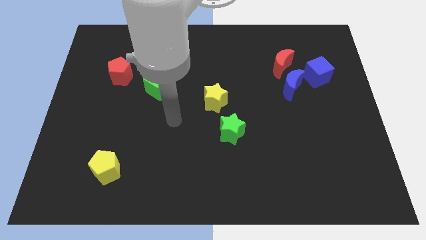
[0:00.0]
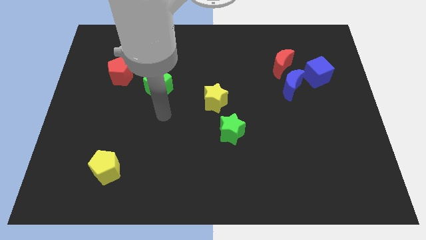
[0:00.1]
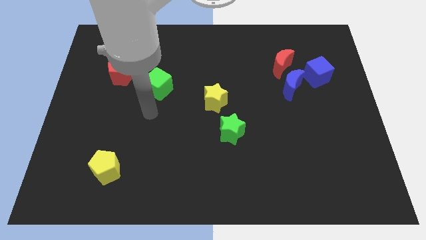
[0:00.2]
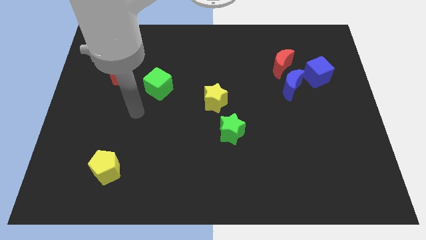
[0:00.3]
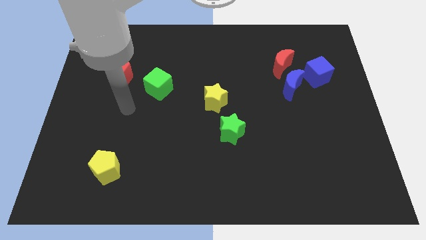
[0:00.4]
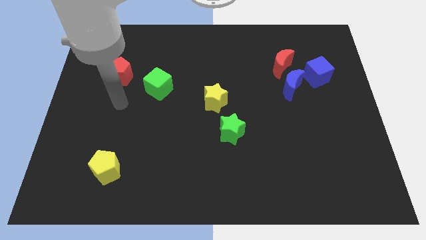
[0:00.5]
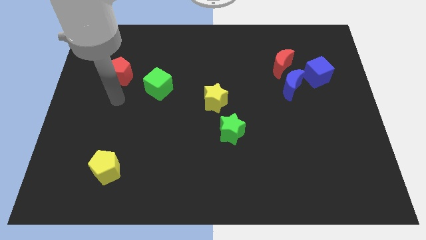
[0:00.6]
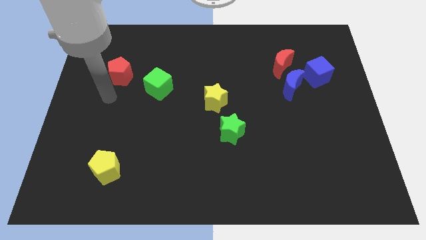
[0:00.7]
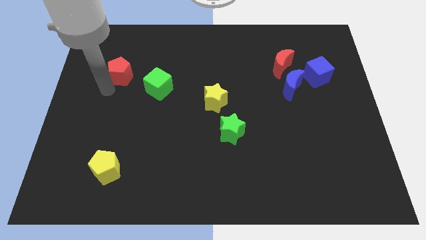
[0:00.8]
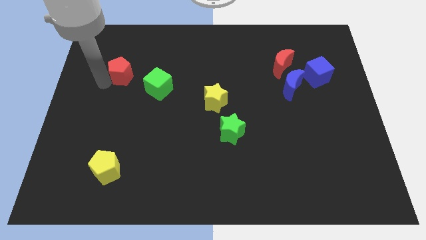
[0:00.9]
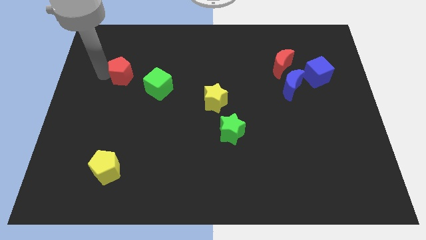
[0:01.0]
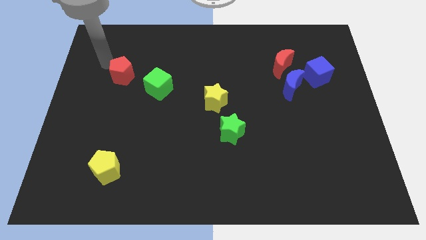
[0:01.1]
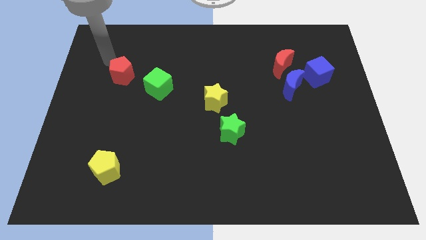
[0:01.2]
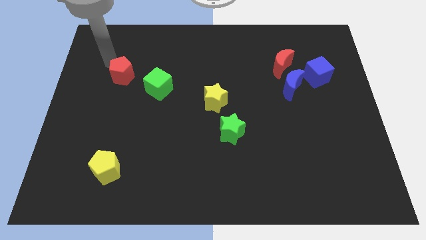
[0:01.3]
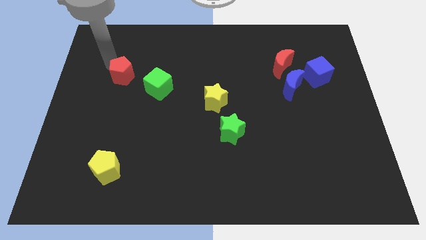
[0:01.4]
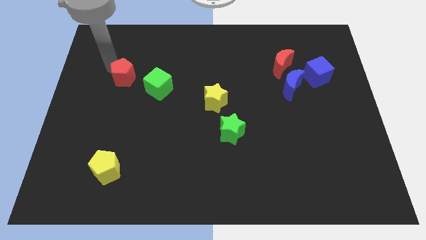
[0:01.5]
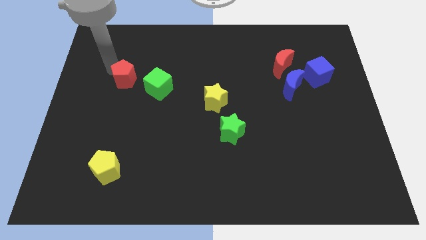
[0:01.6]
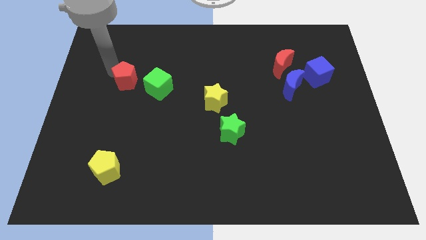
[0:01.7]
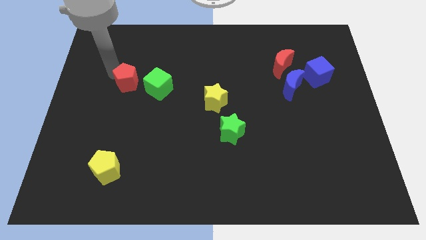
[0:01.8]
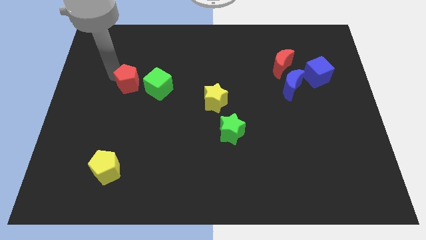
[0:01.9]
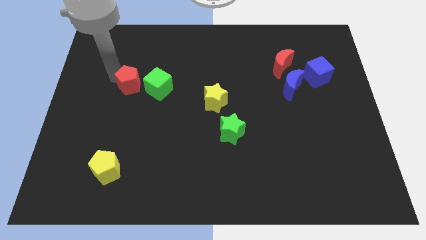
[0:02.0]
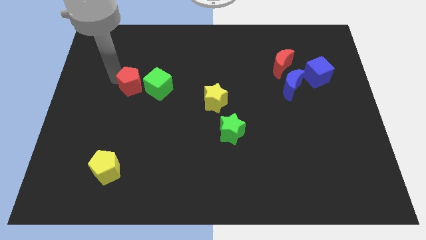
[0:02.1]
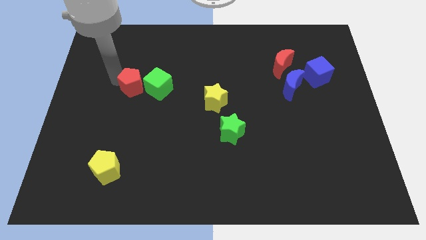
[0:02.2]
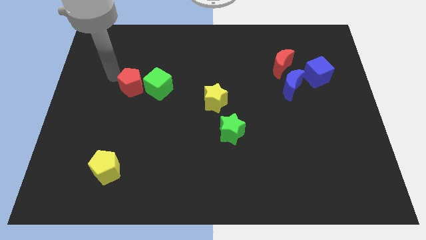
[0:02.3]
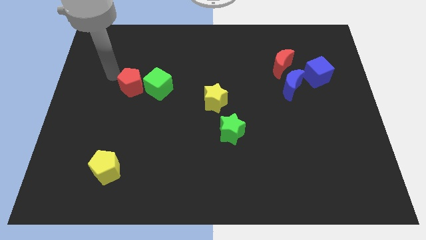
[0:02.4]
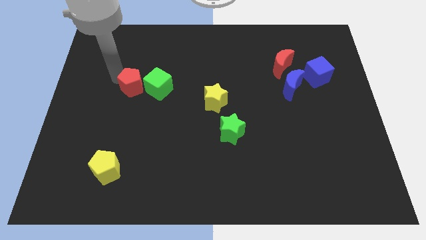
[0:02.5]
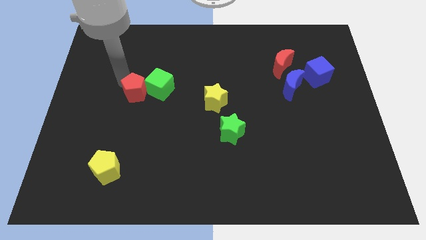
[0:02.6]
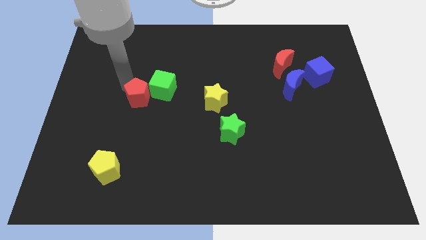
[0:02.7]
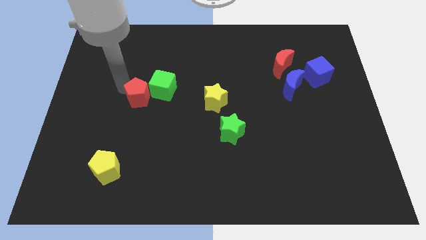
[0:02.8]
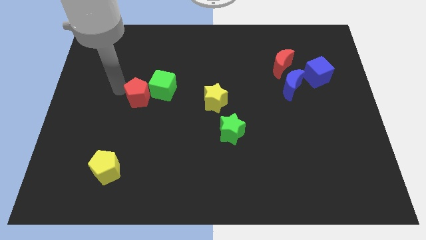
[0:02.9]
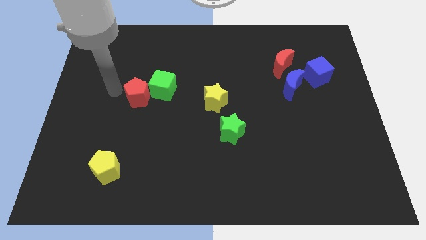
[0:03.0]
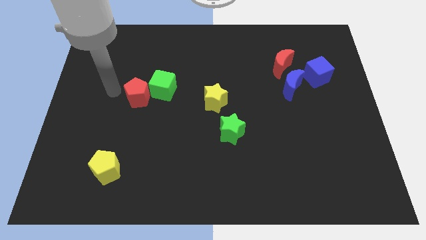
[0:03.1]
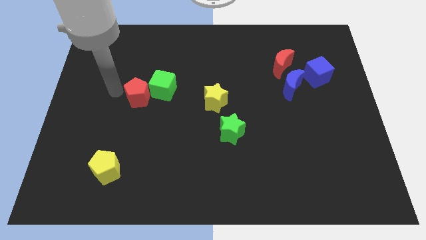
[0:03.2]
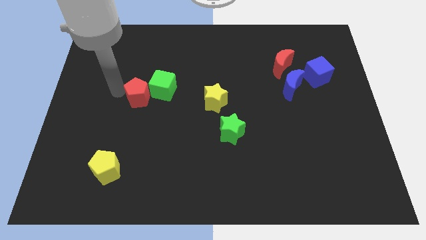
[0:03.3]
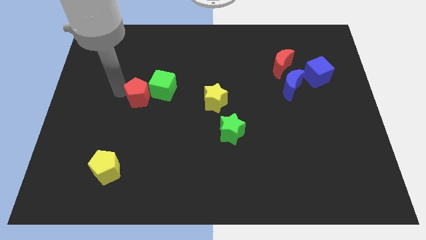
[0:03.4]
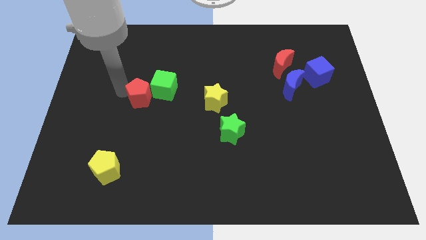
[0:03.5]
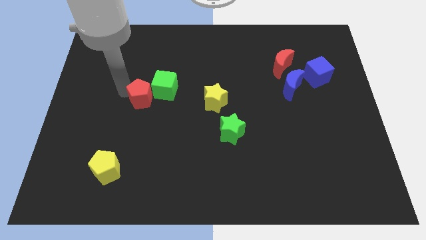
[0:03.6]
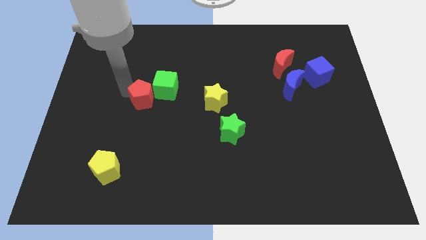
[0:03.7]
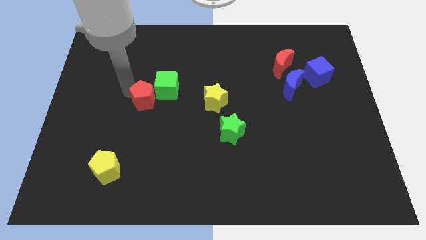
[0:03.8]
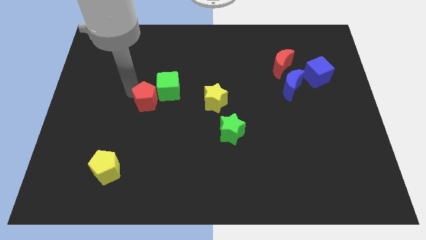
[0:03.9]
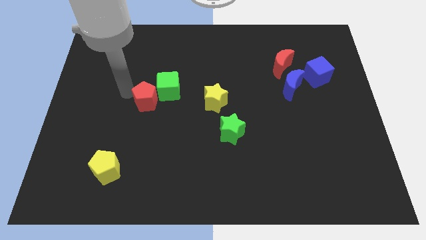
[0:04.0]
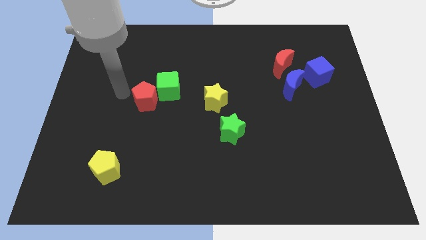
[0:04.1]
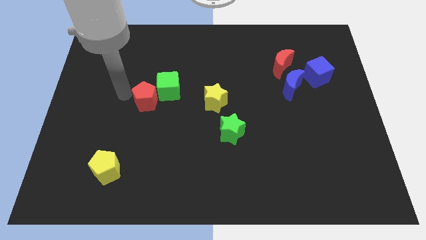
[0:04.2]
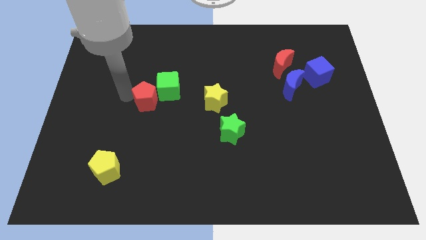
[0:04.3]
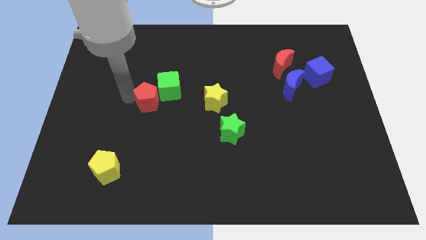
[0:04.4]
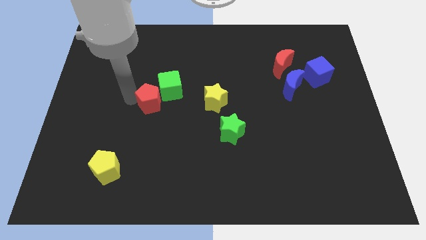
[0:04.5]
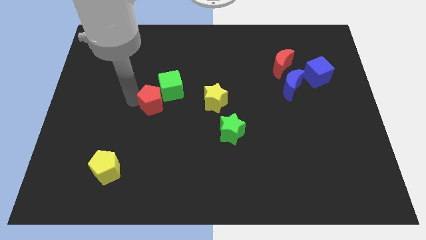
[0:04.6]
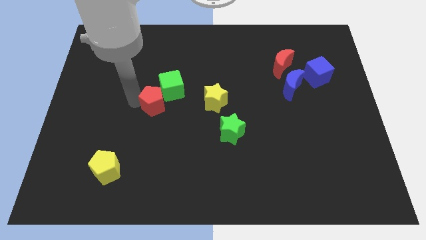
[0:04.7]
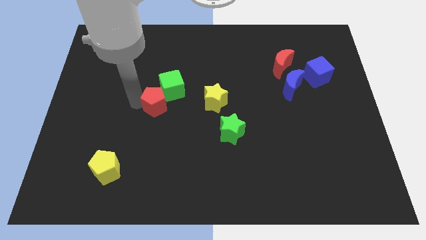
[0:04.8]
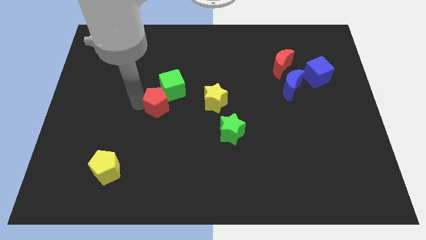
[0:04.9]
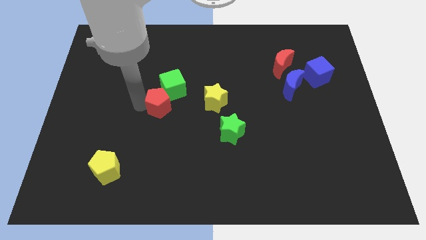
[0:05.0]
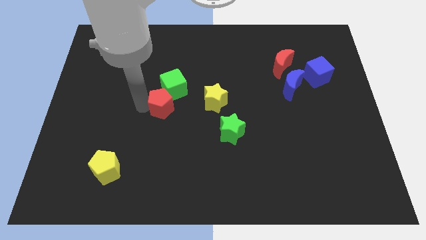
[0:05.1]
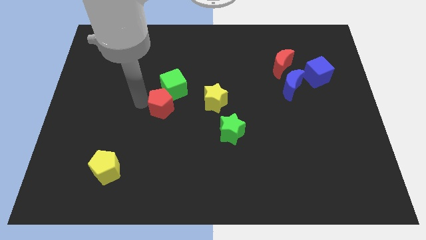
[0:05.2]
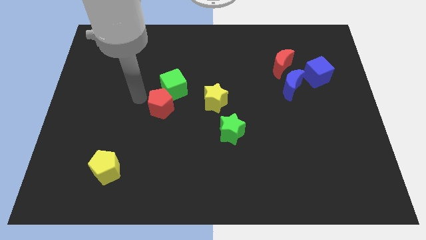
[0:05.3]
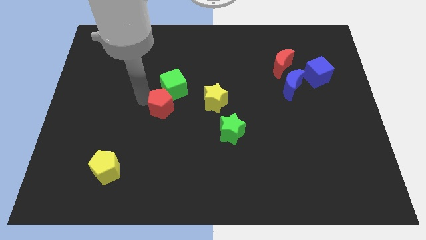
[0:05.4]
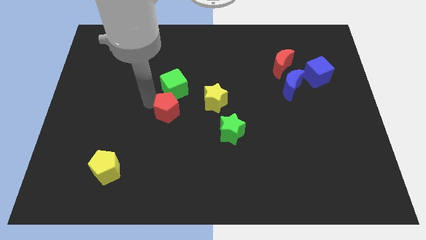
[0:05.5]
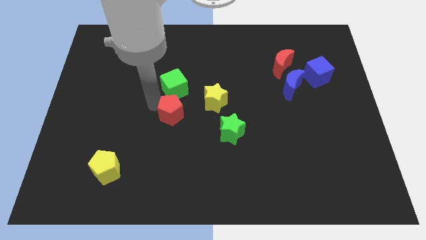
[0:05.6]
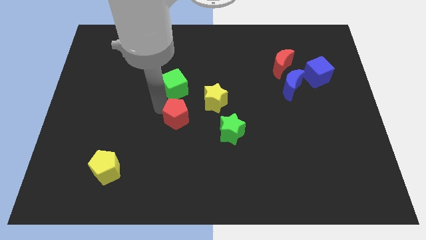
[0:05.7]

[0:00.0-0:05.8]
push the red pentagon downwards and right

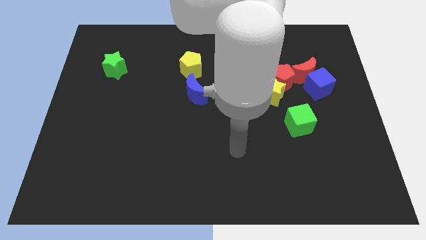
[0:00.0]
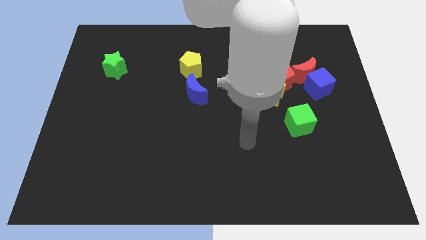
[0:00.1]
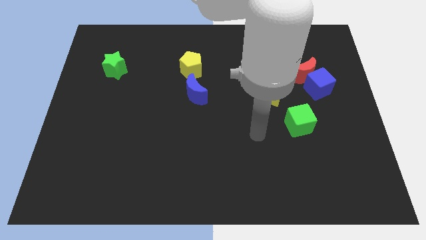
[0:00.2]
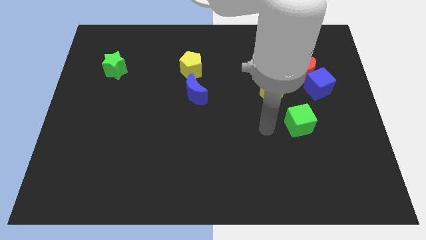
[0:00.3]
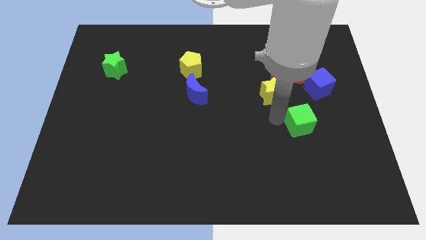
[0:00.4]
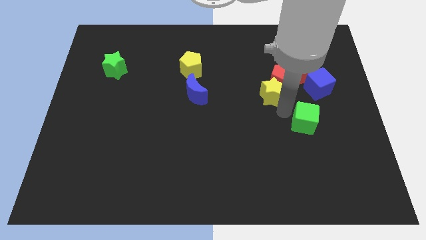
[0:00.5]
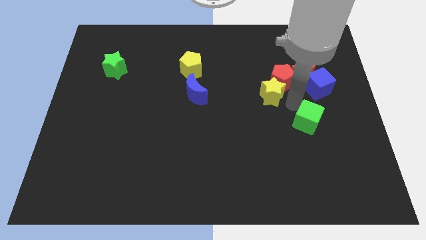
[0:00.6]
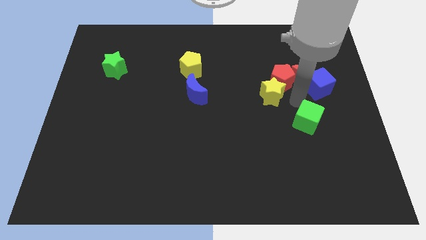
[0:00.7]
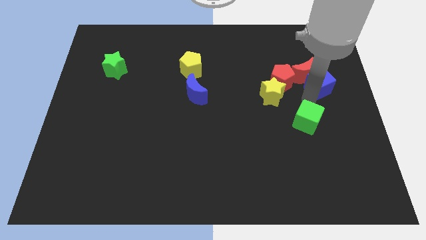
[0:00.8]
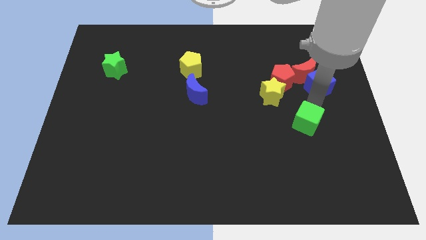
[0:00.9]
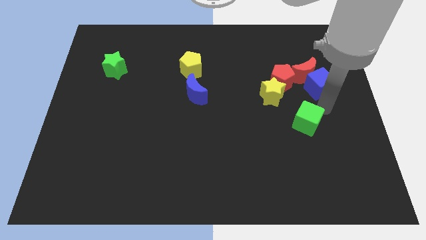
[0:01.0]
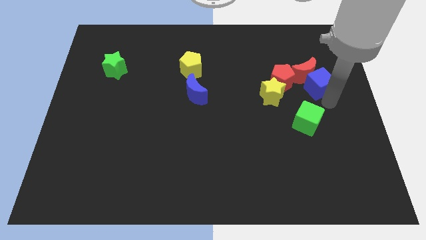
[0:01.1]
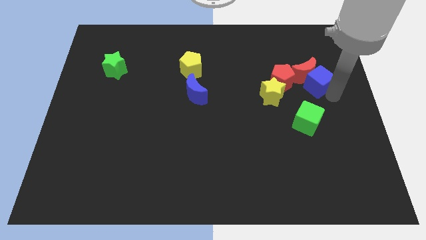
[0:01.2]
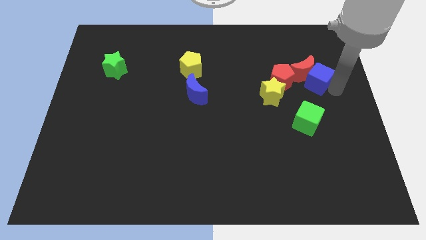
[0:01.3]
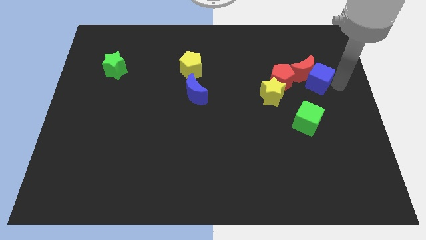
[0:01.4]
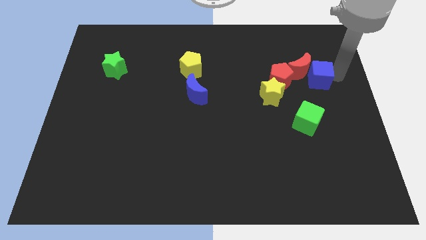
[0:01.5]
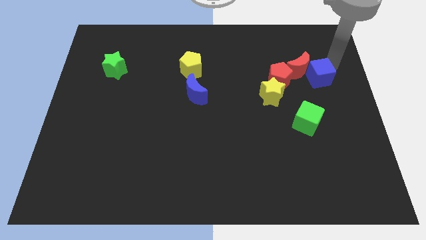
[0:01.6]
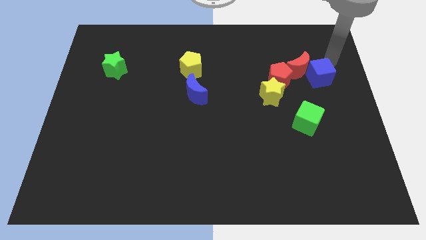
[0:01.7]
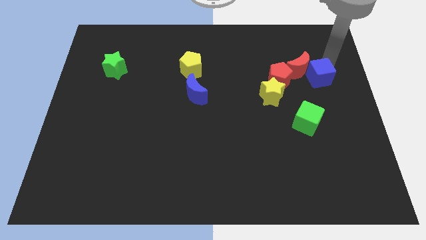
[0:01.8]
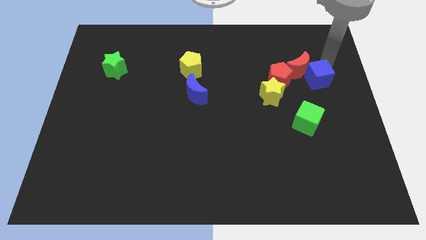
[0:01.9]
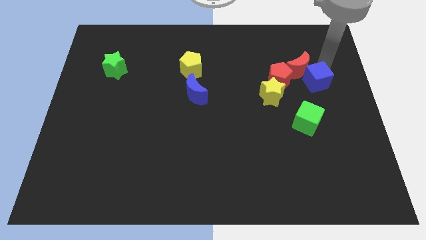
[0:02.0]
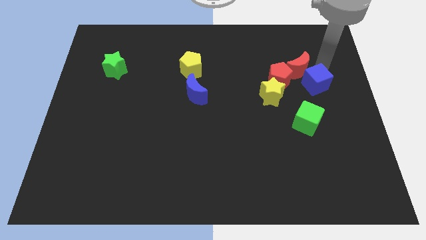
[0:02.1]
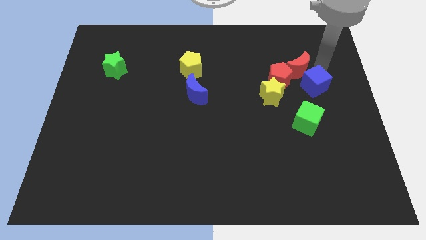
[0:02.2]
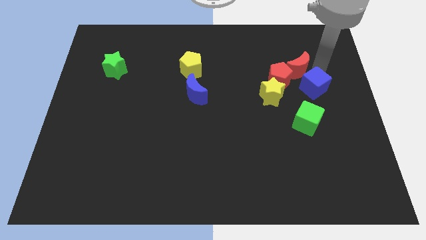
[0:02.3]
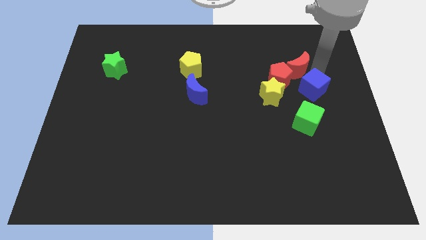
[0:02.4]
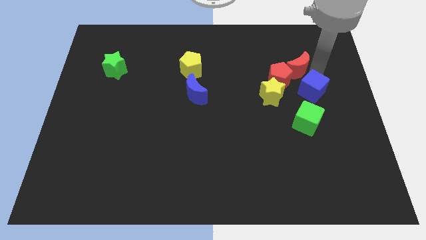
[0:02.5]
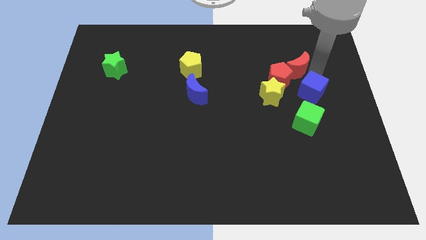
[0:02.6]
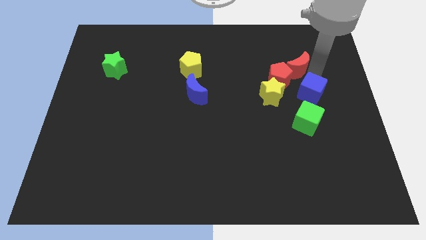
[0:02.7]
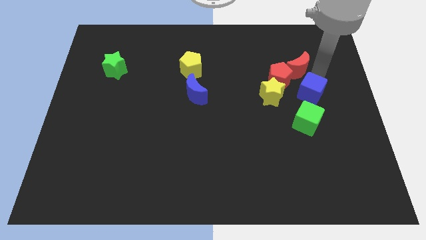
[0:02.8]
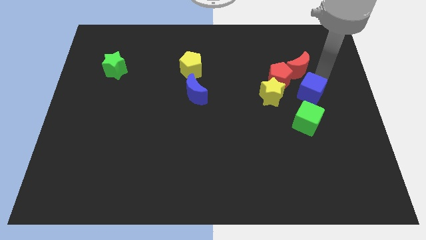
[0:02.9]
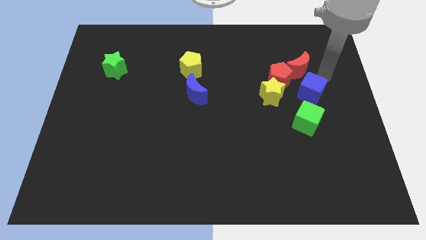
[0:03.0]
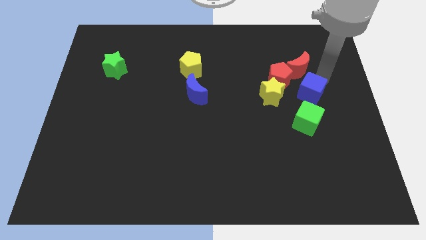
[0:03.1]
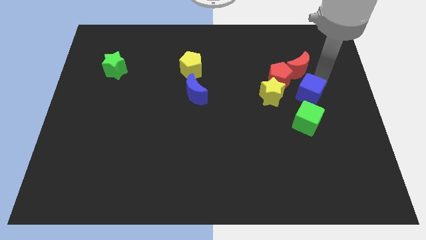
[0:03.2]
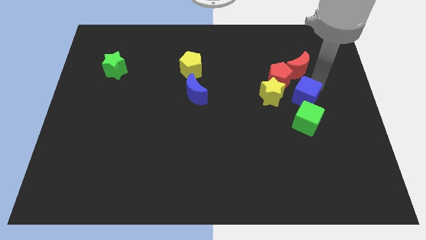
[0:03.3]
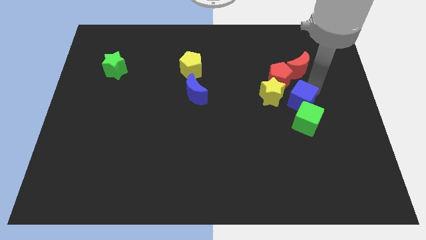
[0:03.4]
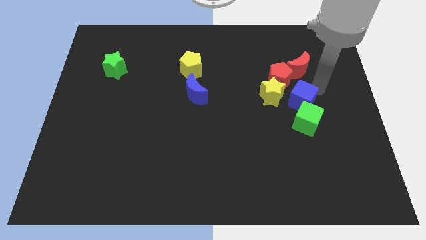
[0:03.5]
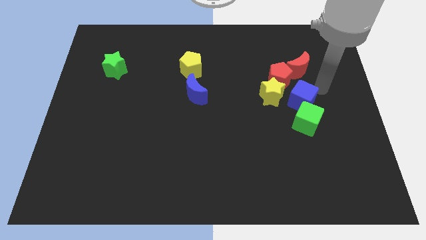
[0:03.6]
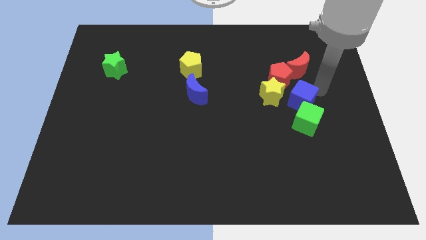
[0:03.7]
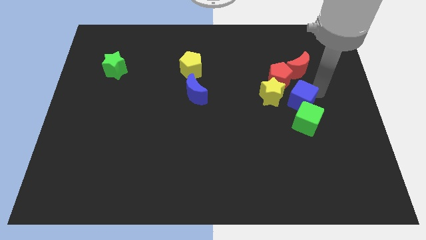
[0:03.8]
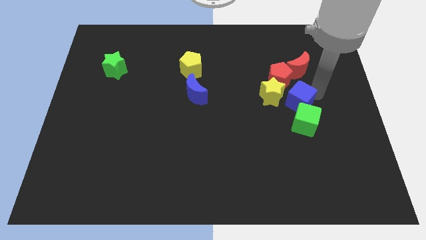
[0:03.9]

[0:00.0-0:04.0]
slide the blue cube downwards and then left a little
